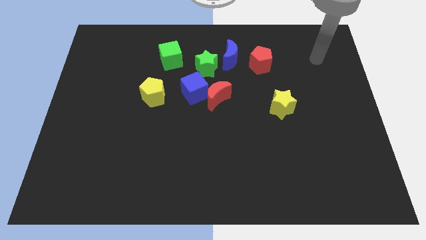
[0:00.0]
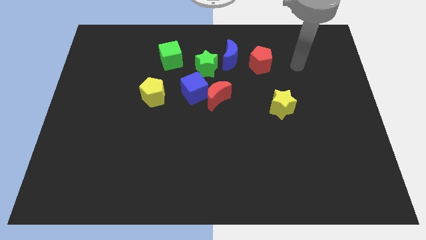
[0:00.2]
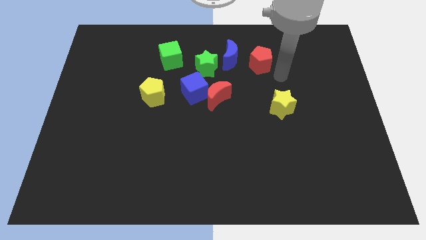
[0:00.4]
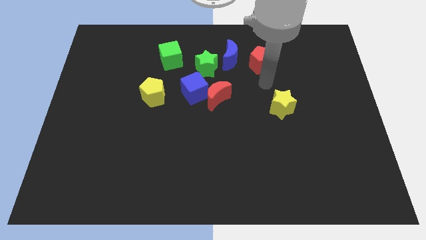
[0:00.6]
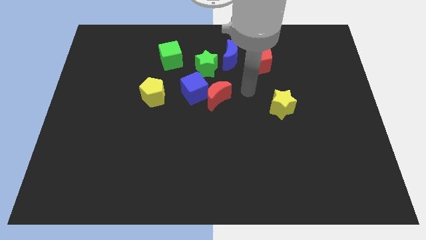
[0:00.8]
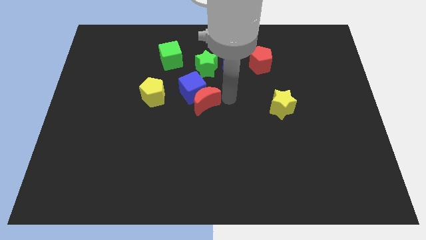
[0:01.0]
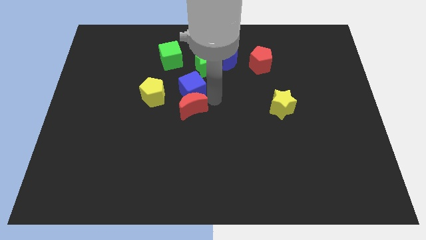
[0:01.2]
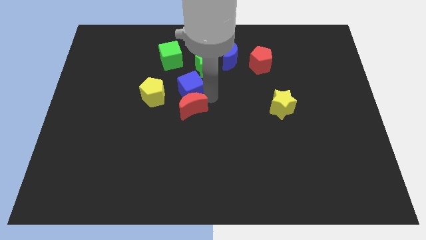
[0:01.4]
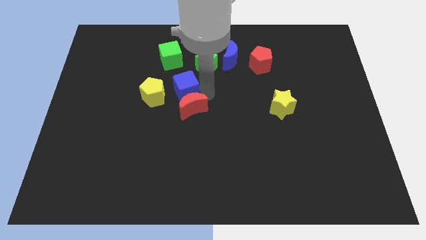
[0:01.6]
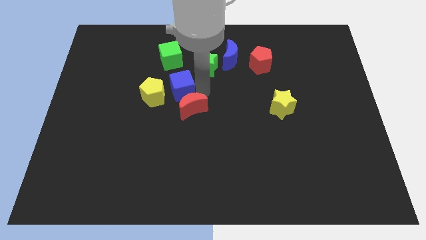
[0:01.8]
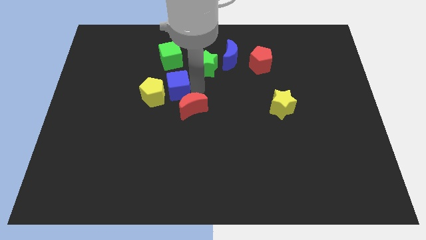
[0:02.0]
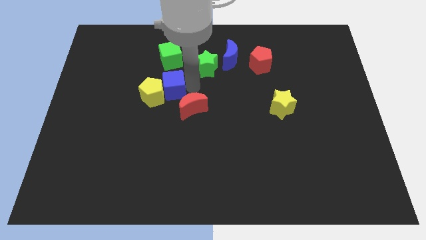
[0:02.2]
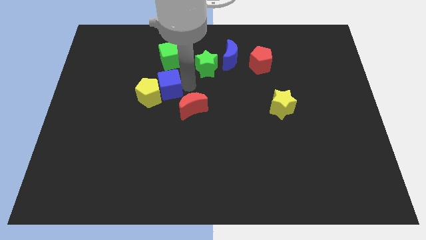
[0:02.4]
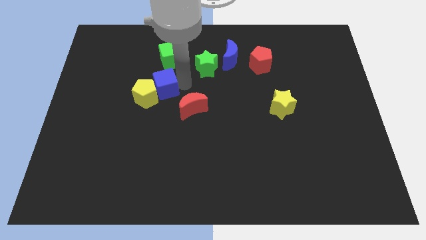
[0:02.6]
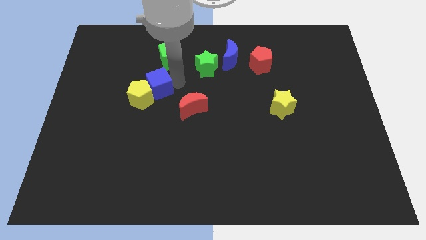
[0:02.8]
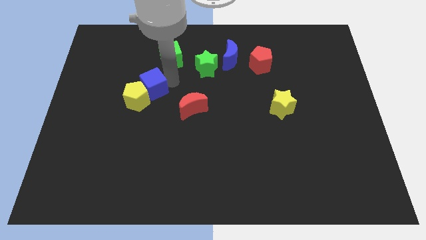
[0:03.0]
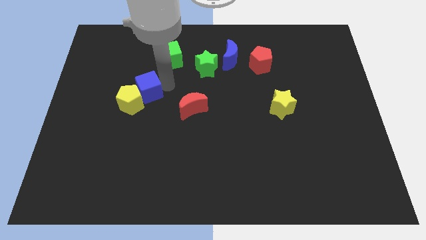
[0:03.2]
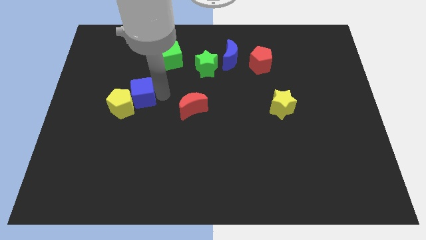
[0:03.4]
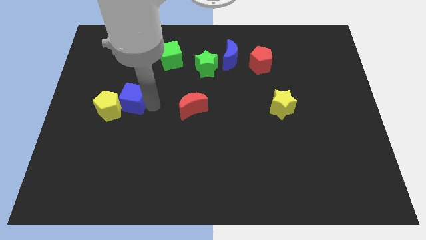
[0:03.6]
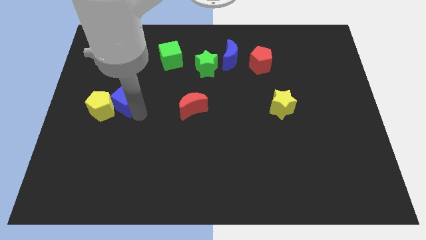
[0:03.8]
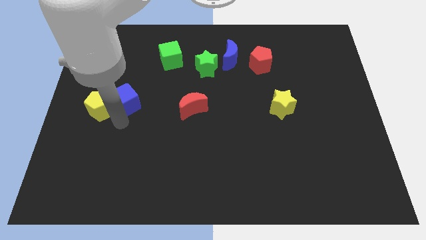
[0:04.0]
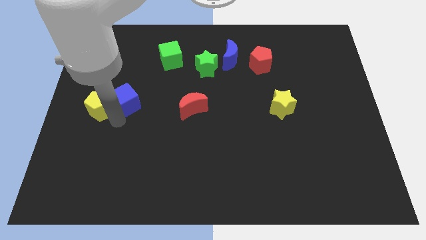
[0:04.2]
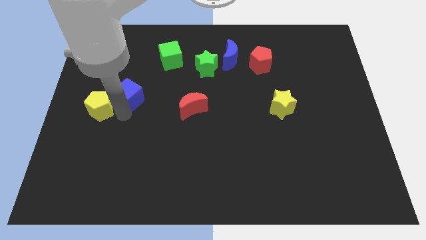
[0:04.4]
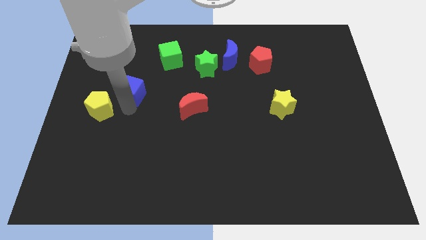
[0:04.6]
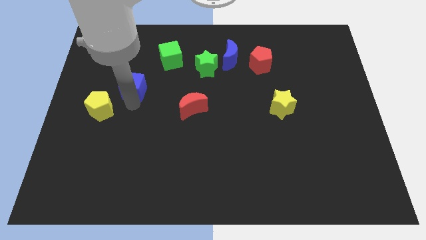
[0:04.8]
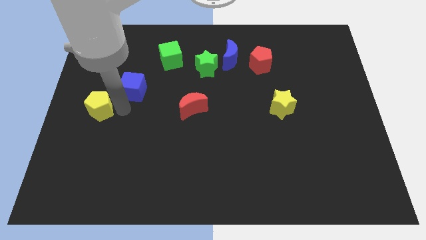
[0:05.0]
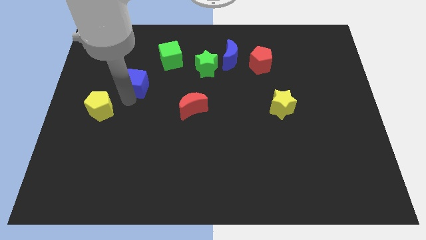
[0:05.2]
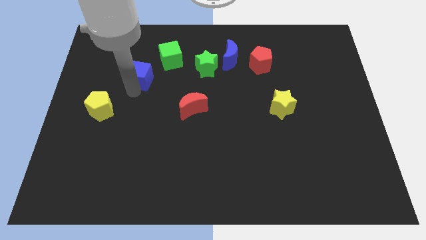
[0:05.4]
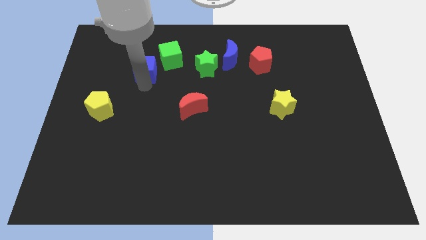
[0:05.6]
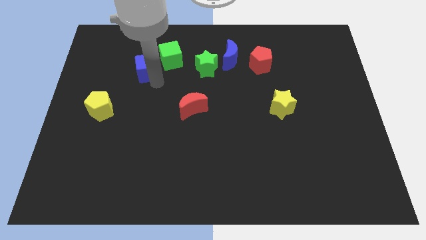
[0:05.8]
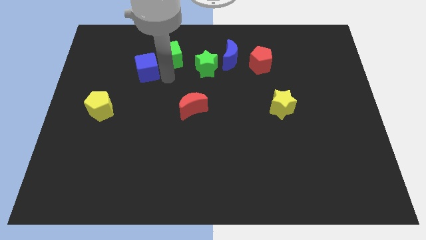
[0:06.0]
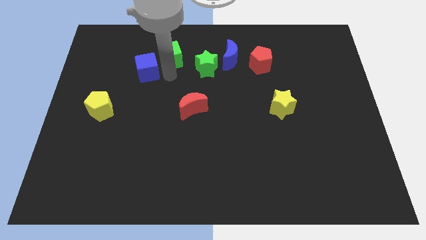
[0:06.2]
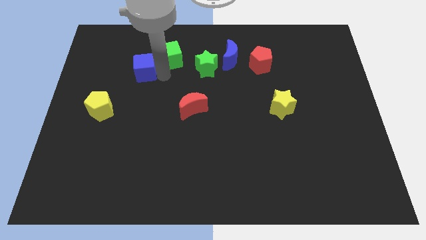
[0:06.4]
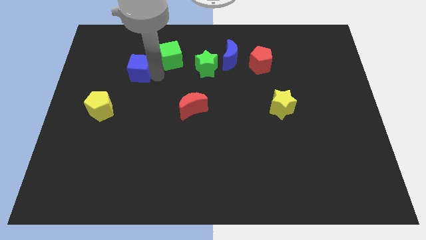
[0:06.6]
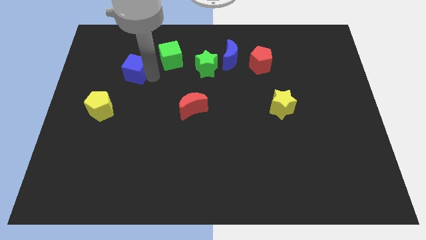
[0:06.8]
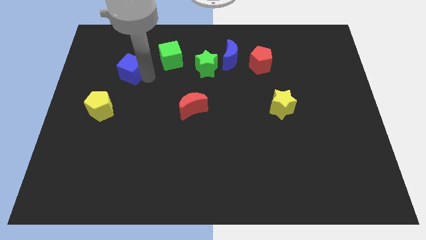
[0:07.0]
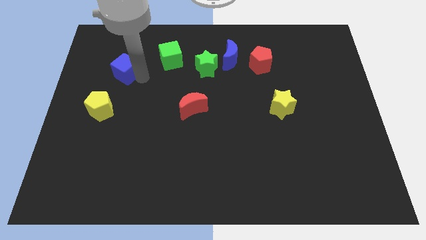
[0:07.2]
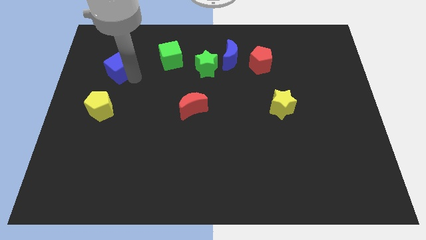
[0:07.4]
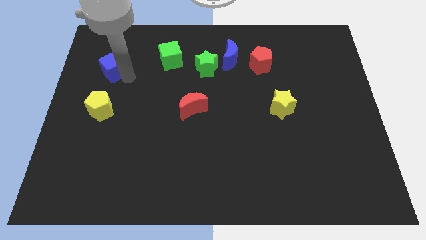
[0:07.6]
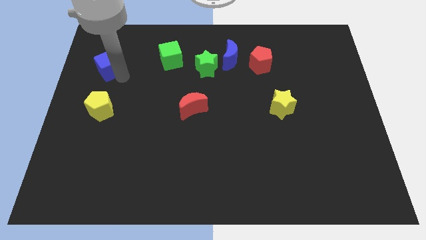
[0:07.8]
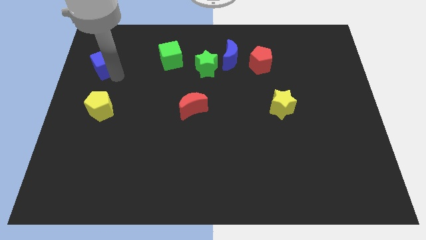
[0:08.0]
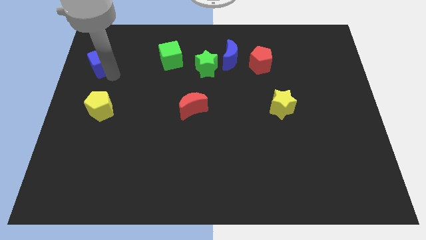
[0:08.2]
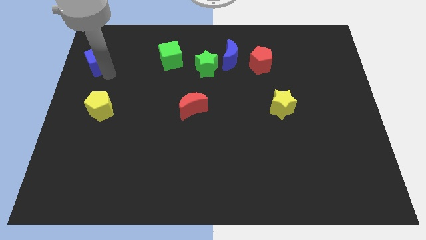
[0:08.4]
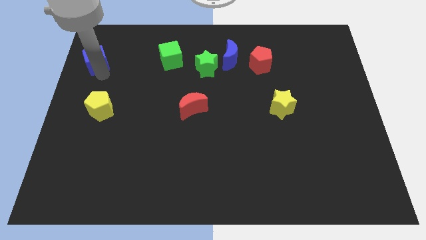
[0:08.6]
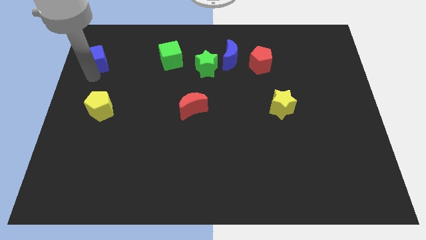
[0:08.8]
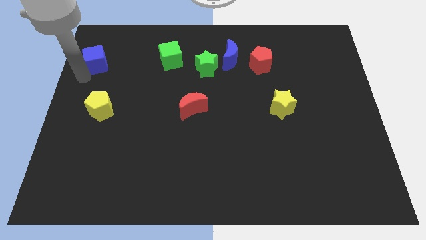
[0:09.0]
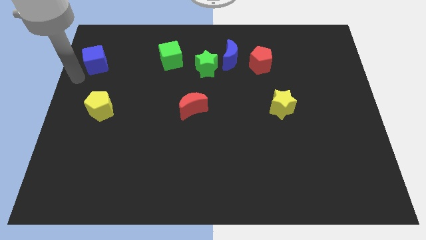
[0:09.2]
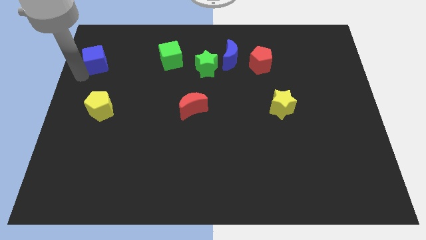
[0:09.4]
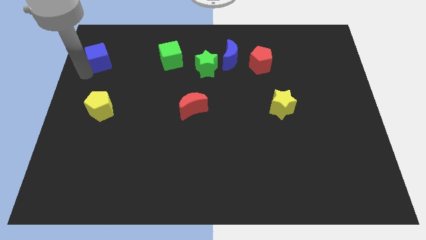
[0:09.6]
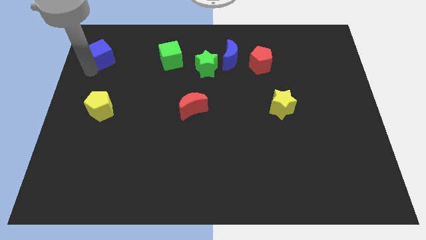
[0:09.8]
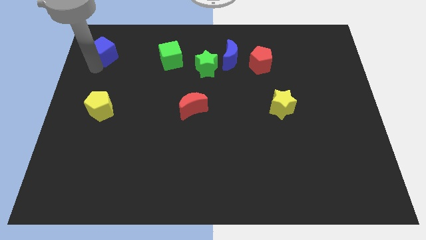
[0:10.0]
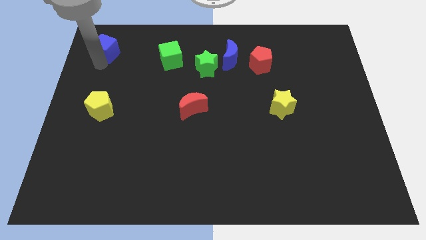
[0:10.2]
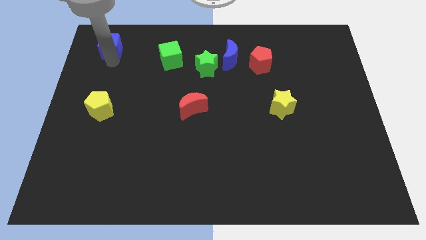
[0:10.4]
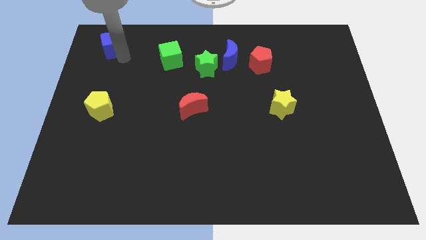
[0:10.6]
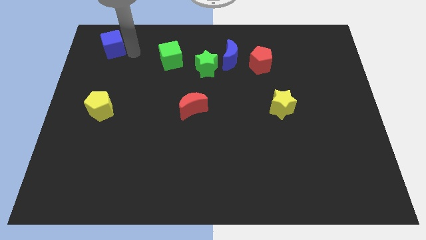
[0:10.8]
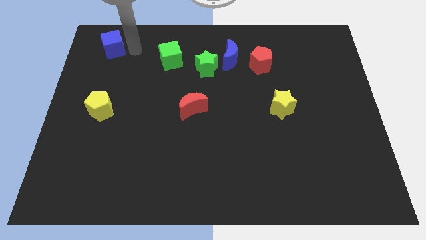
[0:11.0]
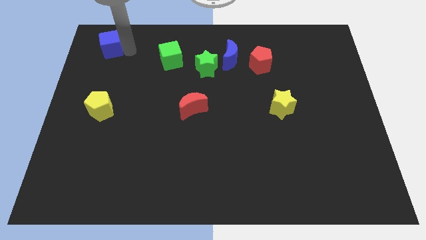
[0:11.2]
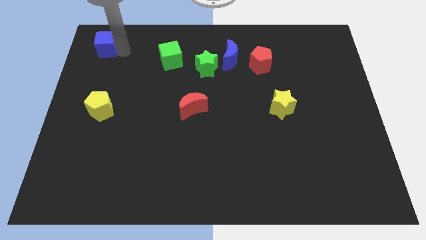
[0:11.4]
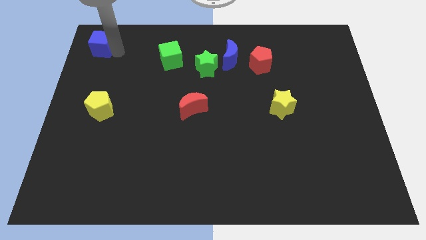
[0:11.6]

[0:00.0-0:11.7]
put the blue cube to the upper left corner

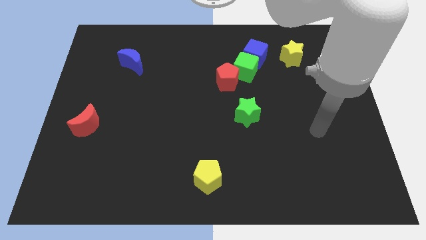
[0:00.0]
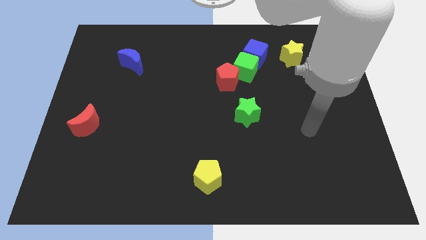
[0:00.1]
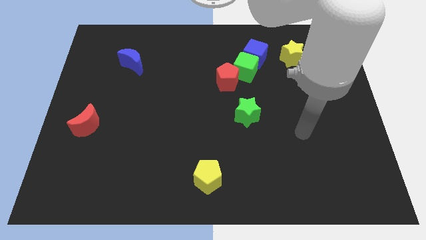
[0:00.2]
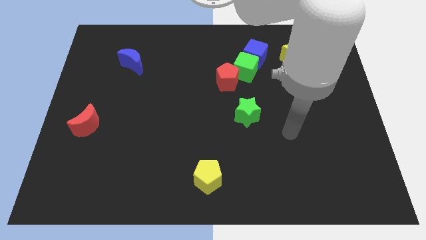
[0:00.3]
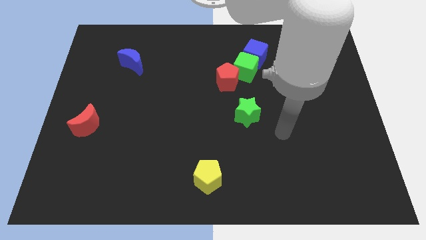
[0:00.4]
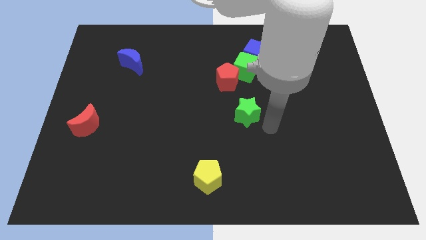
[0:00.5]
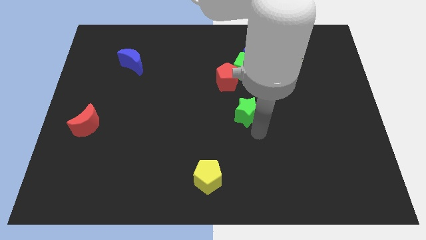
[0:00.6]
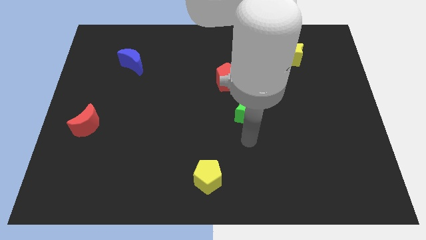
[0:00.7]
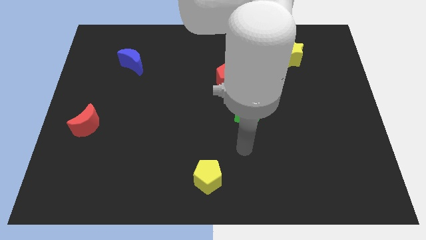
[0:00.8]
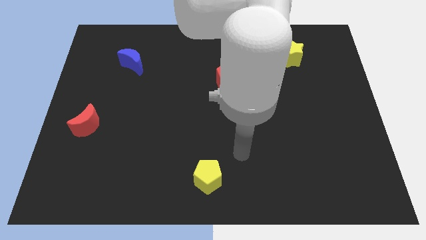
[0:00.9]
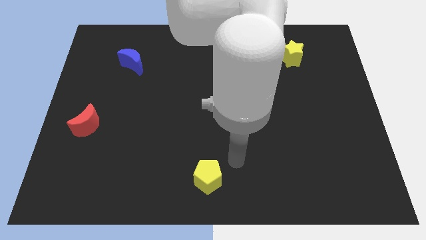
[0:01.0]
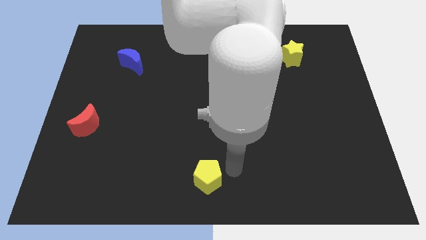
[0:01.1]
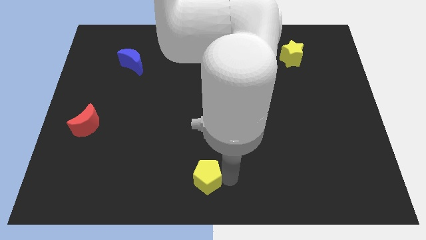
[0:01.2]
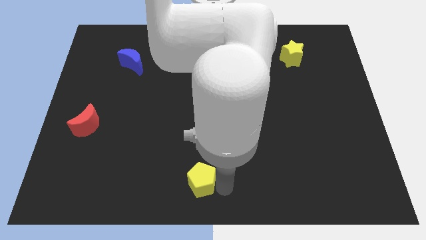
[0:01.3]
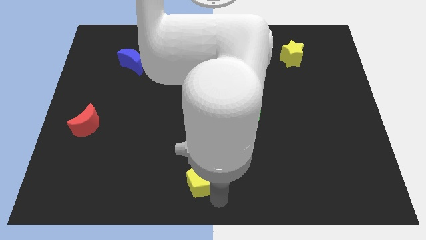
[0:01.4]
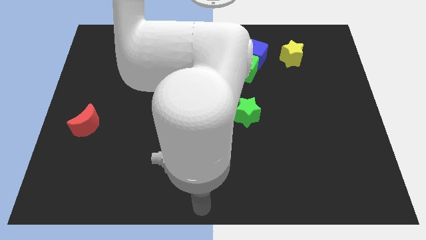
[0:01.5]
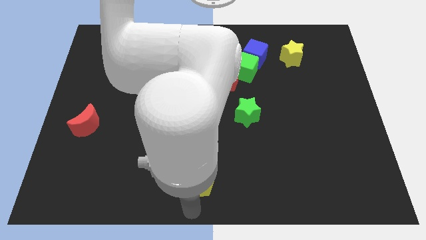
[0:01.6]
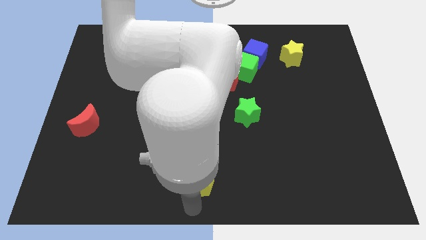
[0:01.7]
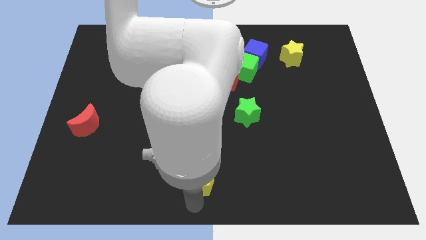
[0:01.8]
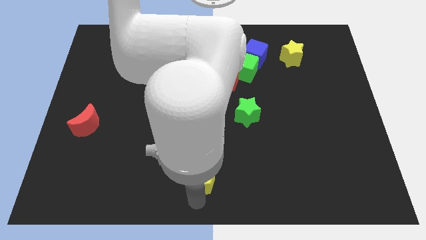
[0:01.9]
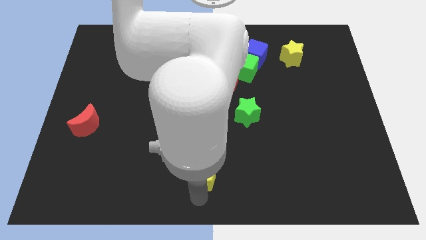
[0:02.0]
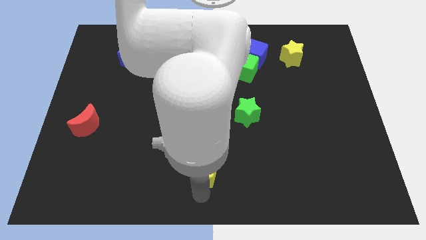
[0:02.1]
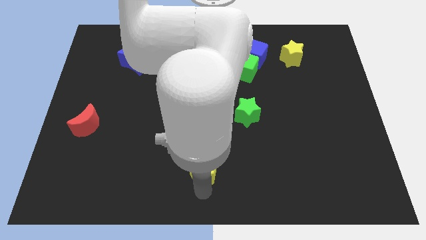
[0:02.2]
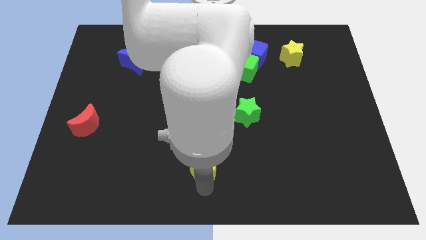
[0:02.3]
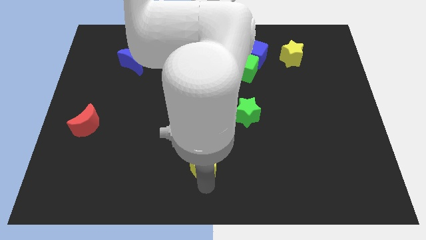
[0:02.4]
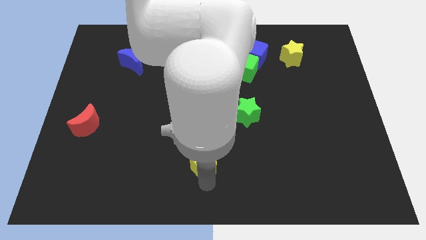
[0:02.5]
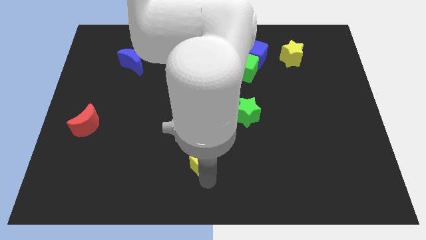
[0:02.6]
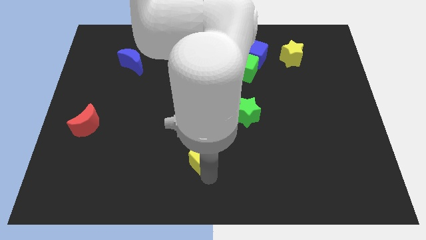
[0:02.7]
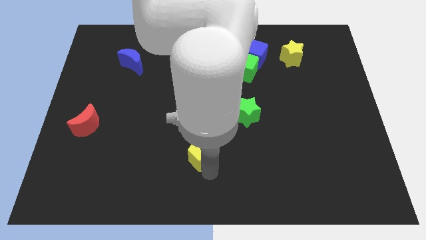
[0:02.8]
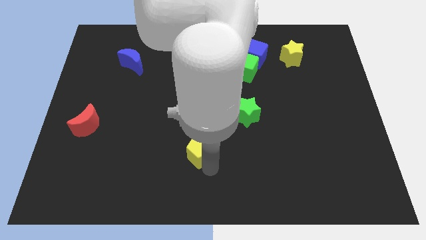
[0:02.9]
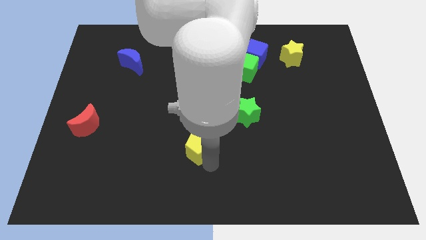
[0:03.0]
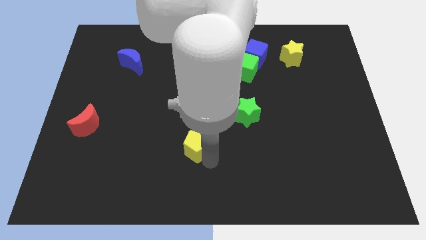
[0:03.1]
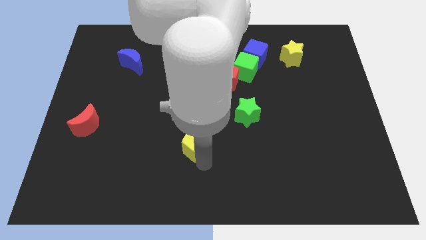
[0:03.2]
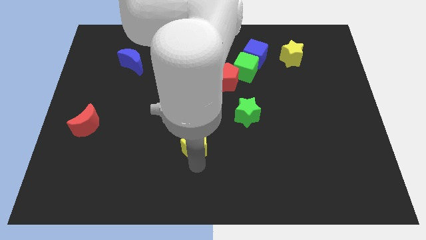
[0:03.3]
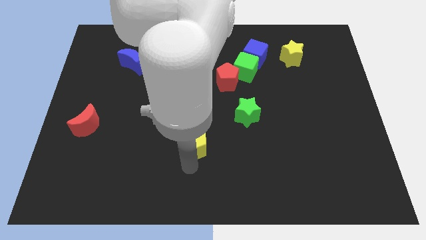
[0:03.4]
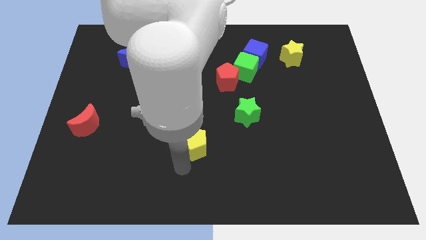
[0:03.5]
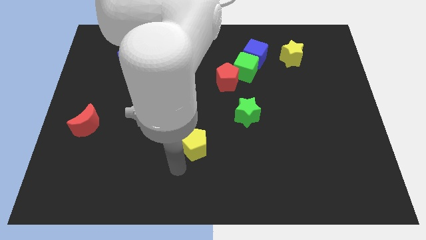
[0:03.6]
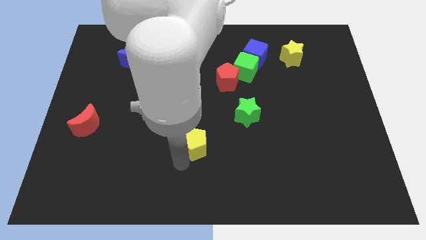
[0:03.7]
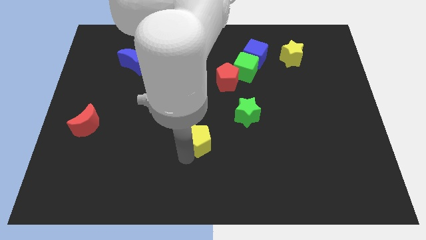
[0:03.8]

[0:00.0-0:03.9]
put the yellow pentagon to the middle of the board
